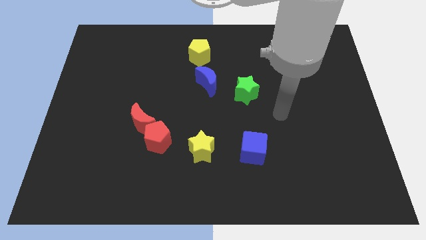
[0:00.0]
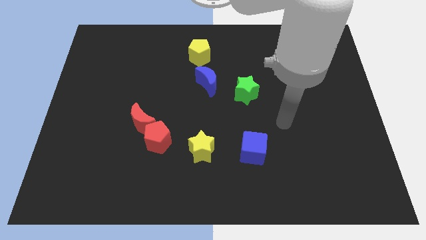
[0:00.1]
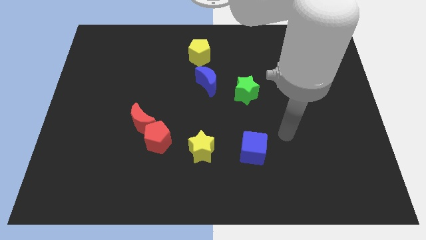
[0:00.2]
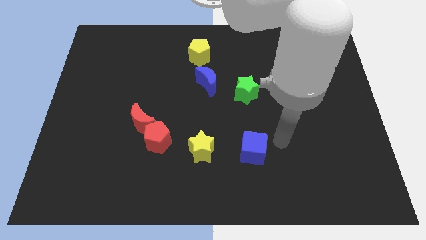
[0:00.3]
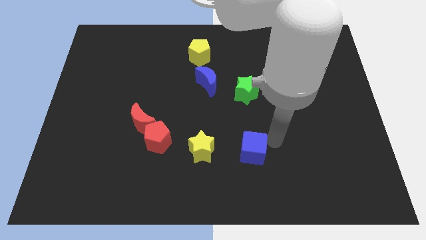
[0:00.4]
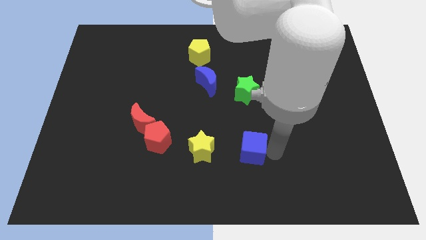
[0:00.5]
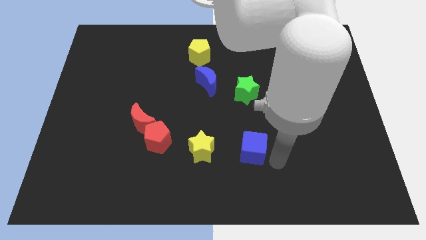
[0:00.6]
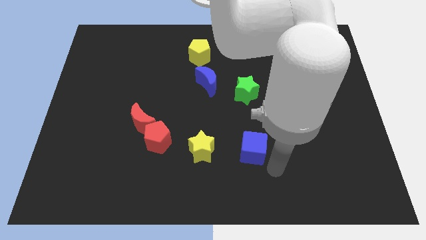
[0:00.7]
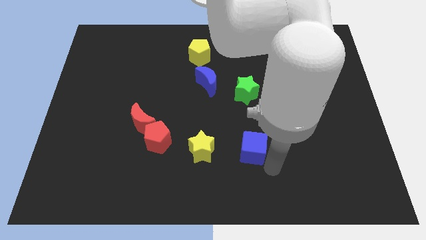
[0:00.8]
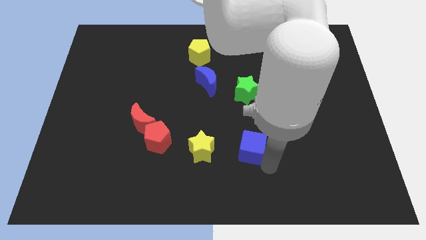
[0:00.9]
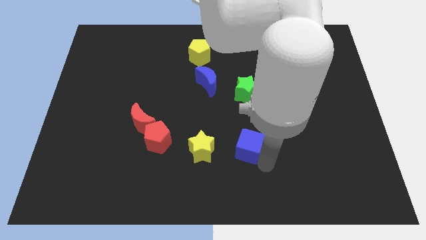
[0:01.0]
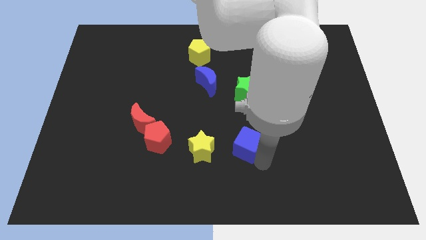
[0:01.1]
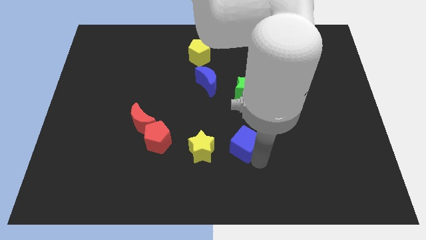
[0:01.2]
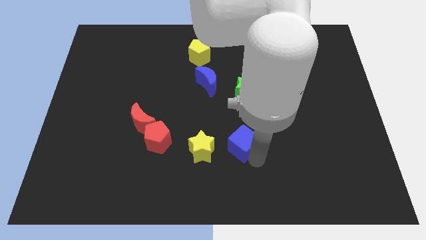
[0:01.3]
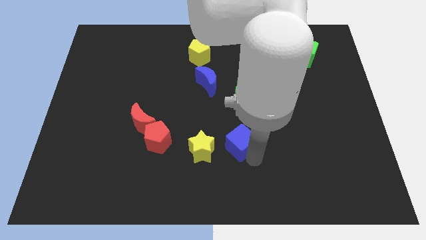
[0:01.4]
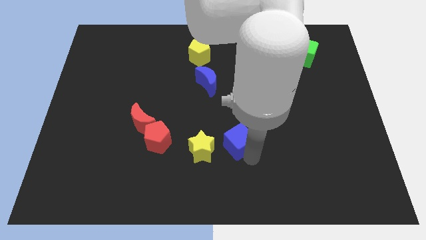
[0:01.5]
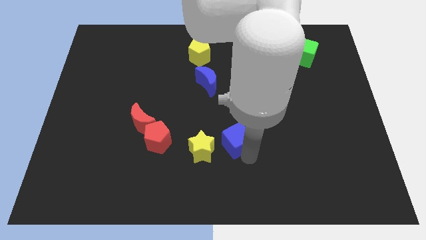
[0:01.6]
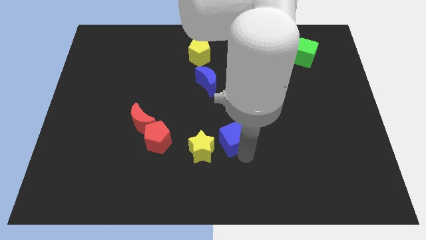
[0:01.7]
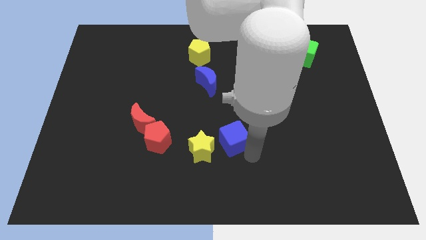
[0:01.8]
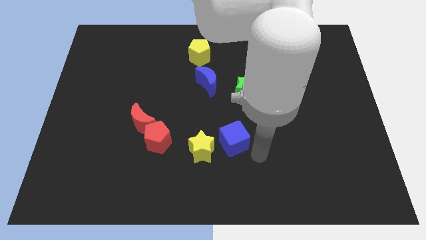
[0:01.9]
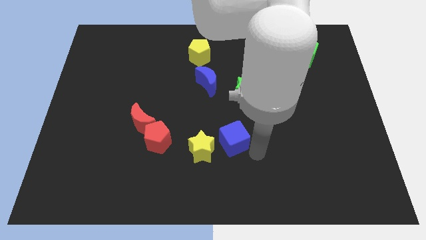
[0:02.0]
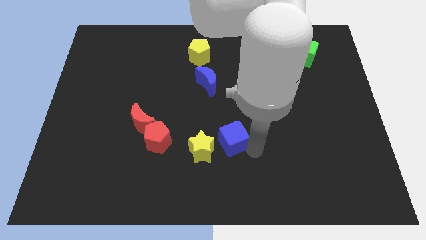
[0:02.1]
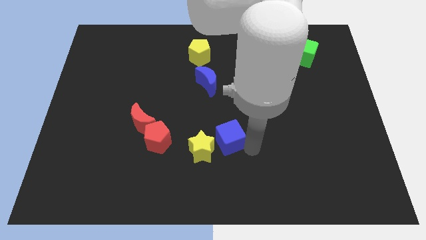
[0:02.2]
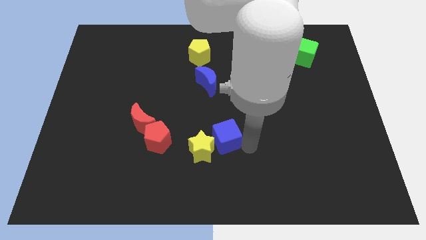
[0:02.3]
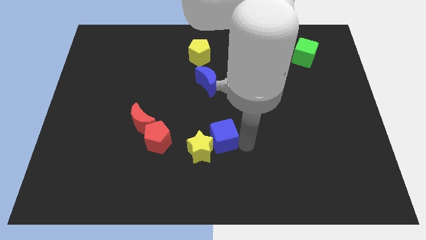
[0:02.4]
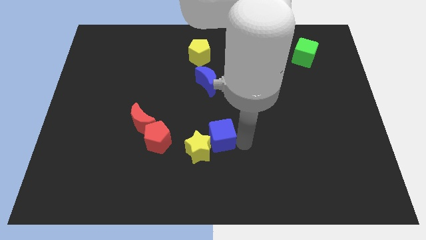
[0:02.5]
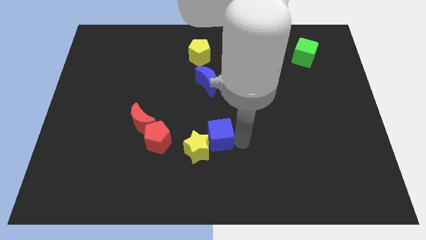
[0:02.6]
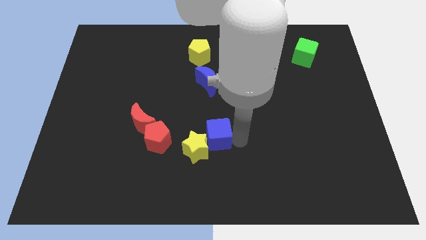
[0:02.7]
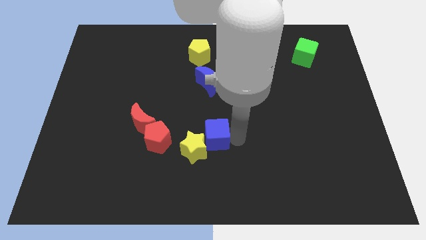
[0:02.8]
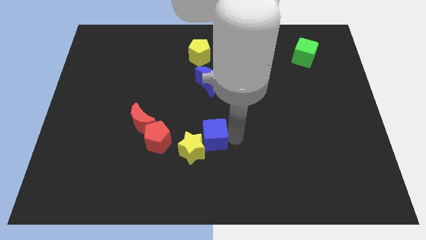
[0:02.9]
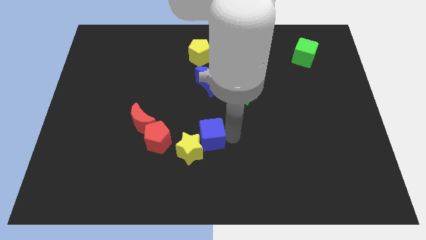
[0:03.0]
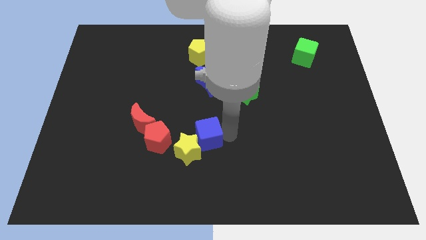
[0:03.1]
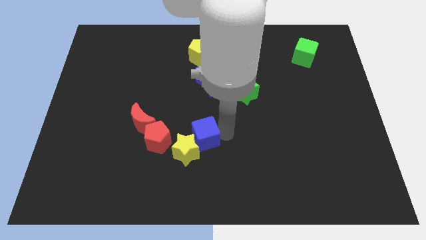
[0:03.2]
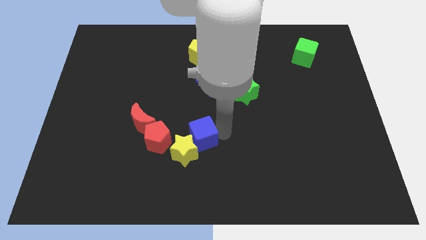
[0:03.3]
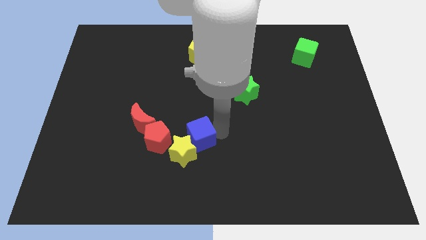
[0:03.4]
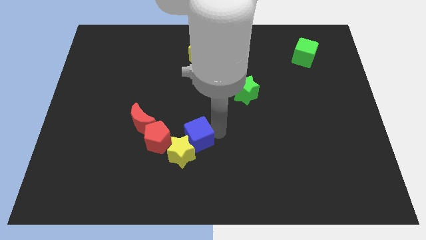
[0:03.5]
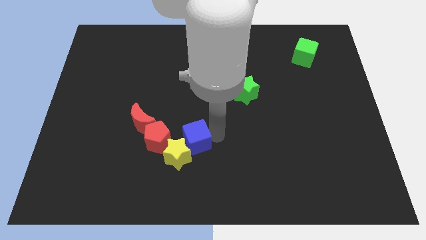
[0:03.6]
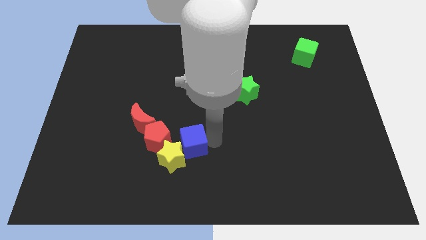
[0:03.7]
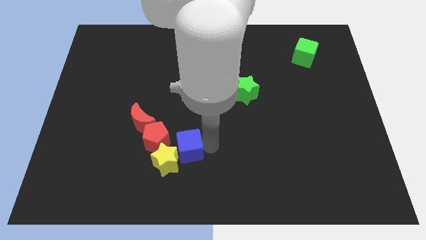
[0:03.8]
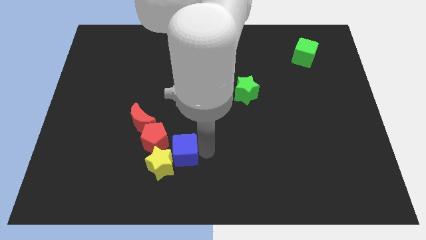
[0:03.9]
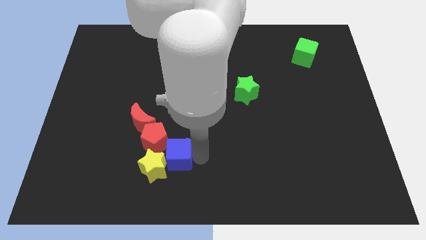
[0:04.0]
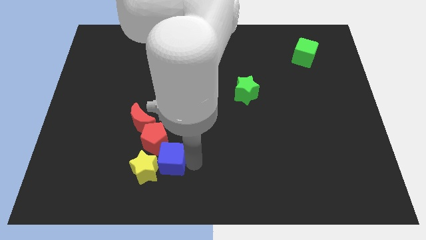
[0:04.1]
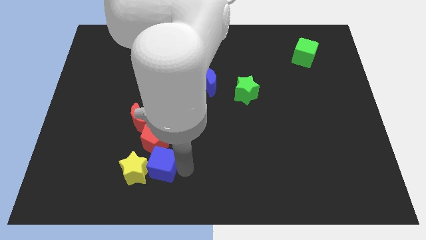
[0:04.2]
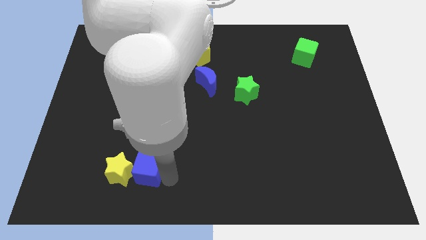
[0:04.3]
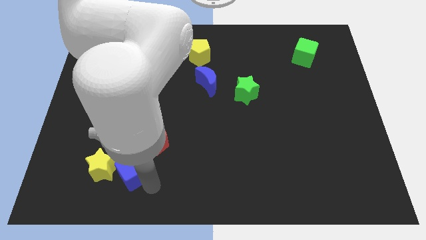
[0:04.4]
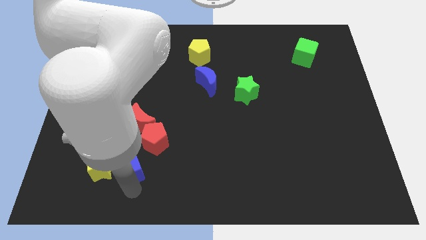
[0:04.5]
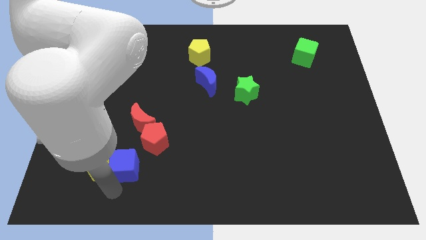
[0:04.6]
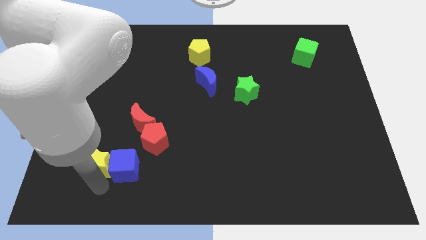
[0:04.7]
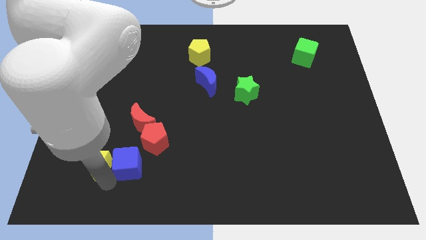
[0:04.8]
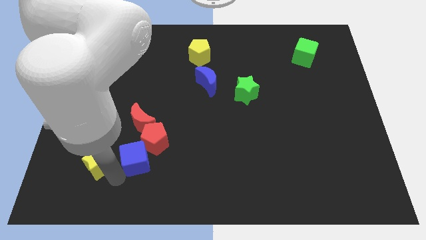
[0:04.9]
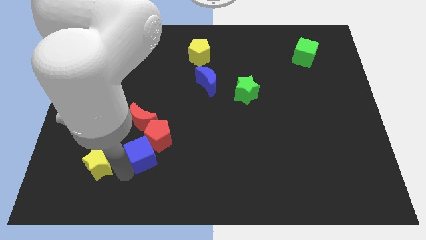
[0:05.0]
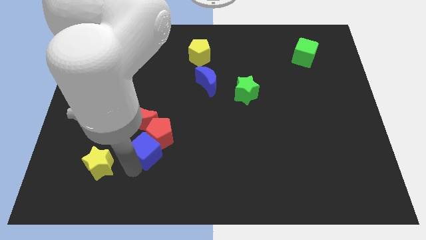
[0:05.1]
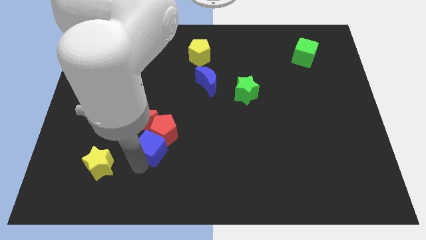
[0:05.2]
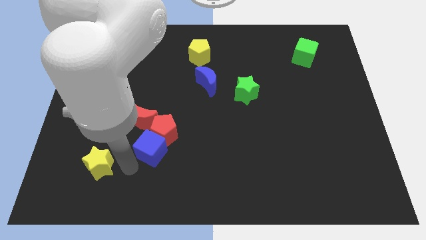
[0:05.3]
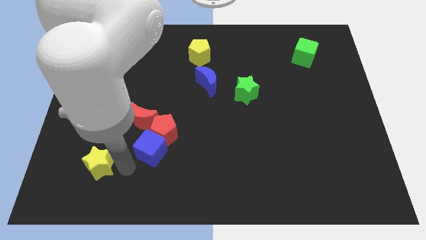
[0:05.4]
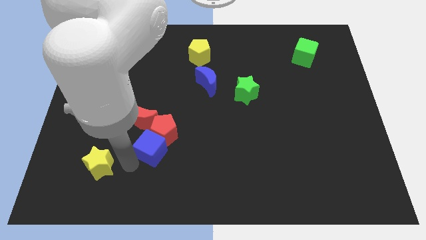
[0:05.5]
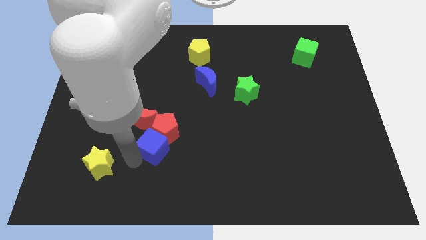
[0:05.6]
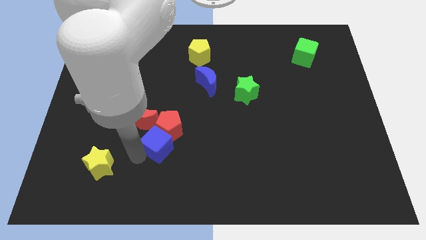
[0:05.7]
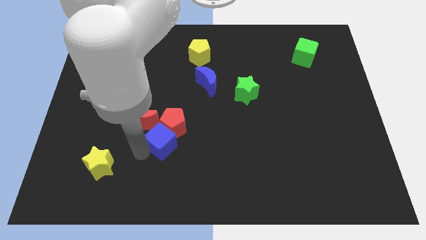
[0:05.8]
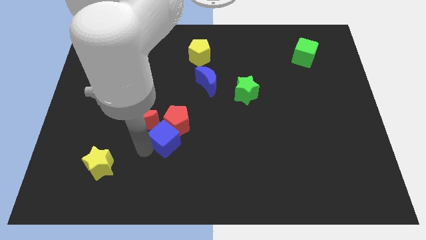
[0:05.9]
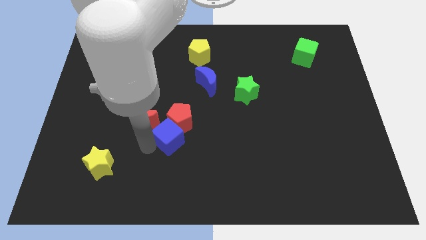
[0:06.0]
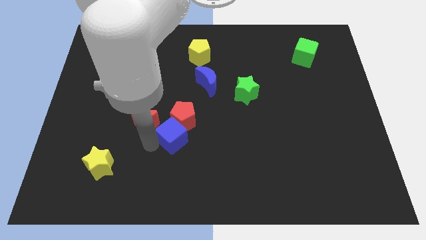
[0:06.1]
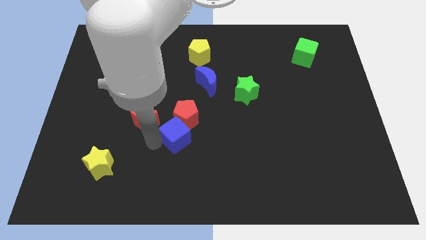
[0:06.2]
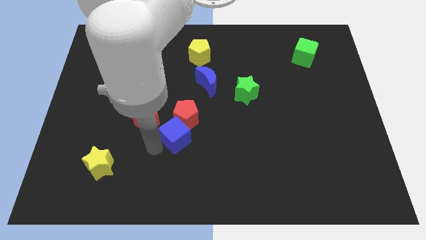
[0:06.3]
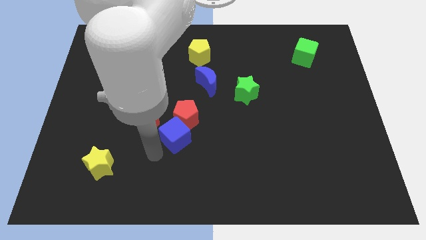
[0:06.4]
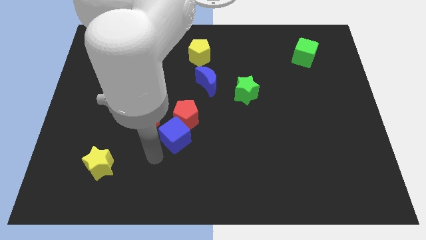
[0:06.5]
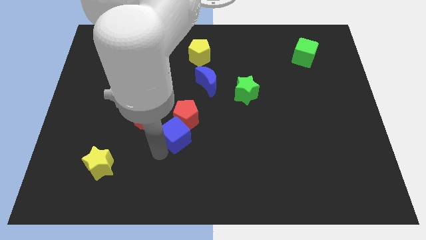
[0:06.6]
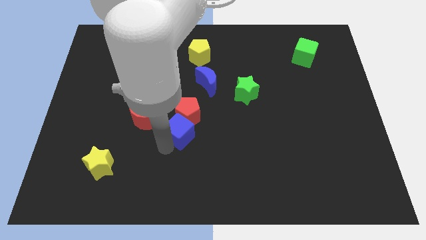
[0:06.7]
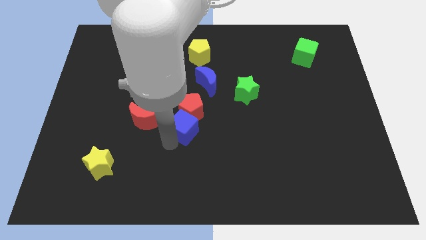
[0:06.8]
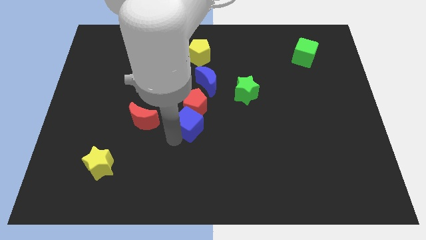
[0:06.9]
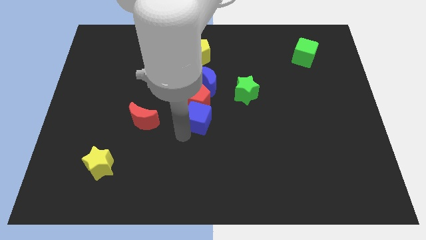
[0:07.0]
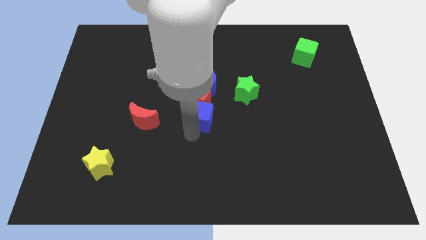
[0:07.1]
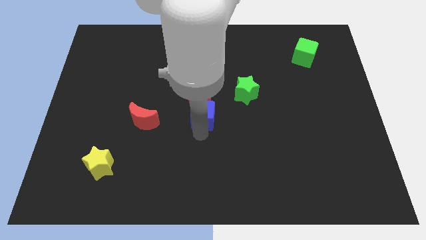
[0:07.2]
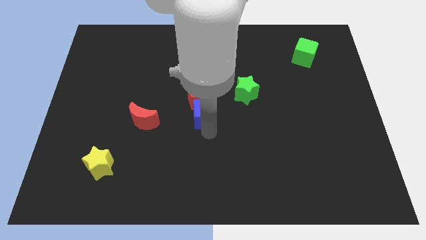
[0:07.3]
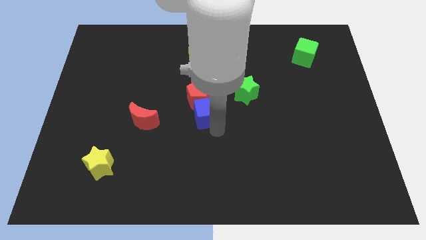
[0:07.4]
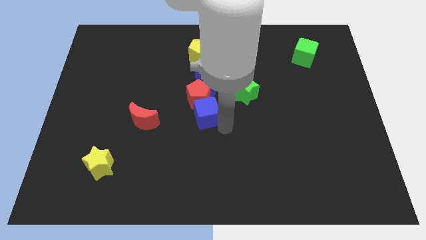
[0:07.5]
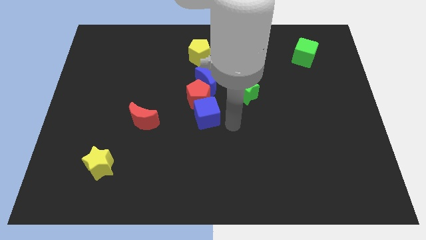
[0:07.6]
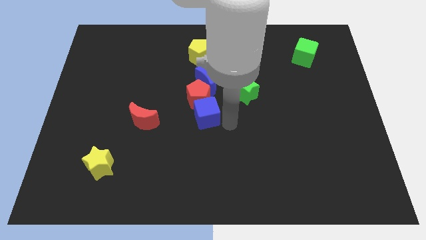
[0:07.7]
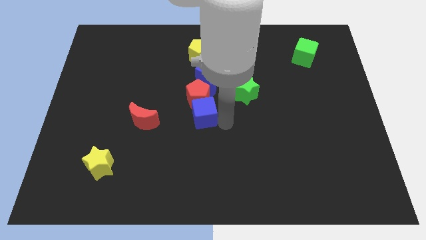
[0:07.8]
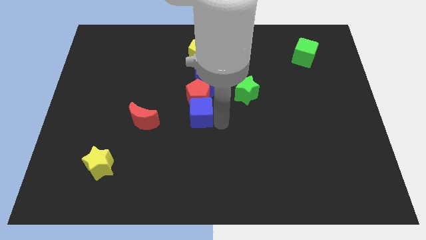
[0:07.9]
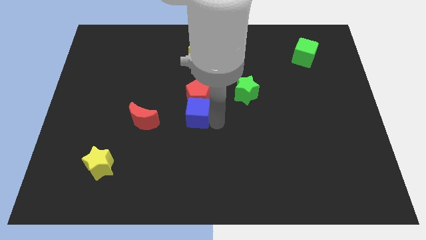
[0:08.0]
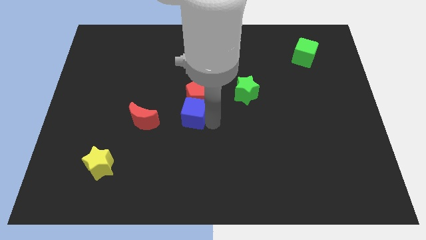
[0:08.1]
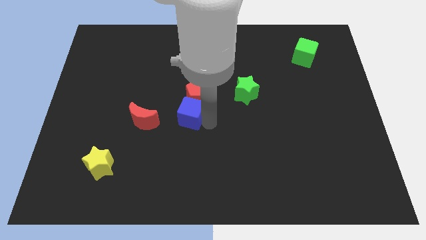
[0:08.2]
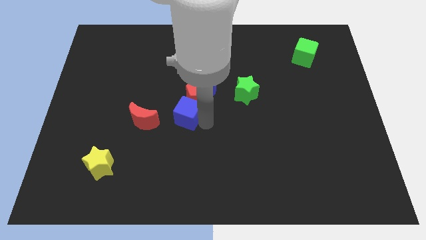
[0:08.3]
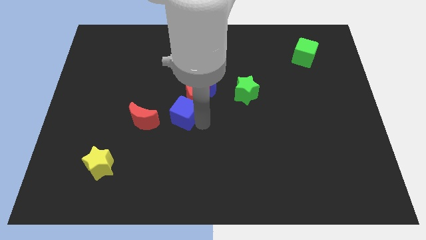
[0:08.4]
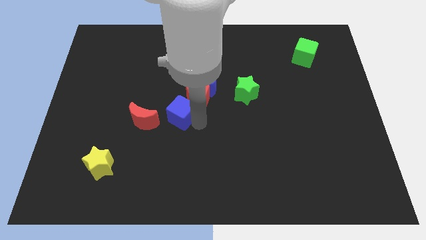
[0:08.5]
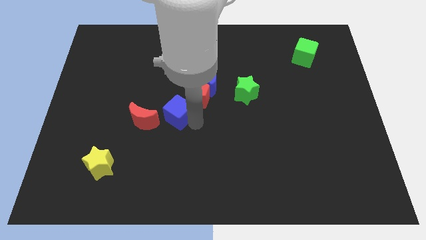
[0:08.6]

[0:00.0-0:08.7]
push the blue cube to the top right side of the red moon
